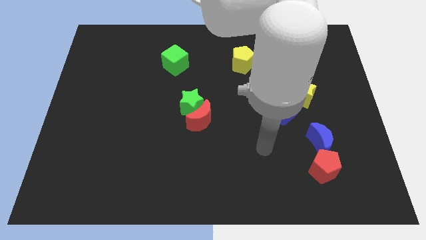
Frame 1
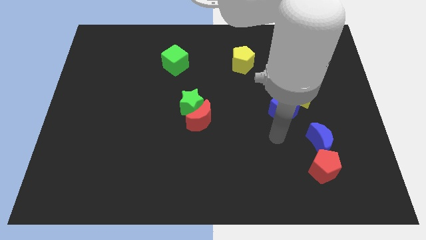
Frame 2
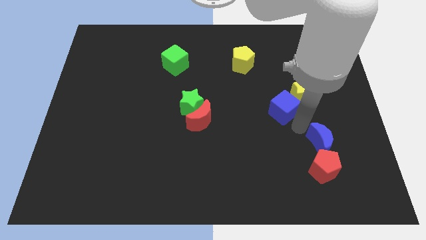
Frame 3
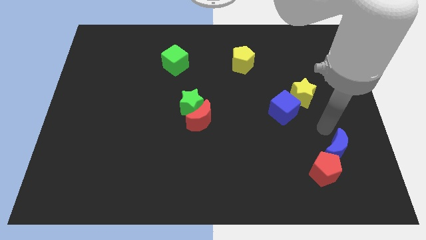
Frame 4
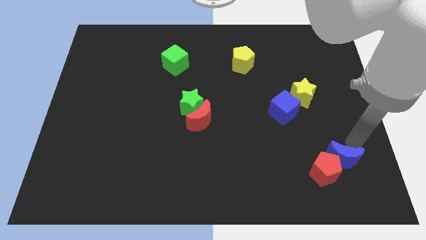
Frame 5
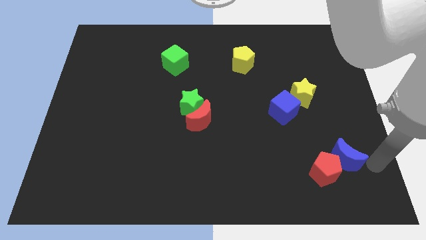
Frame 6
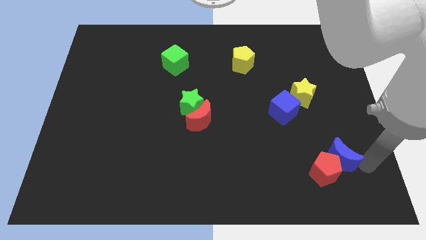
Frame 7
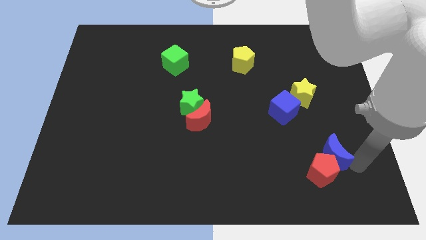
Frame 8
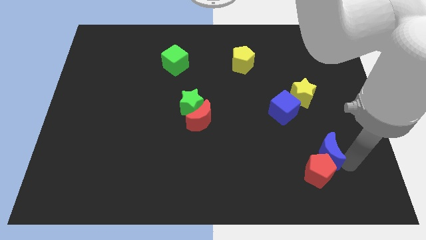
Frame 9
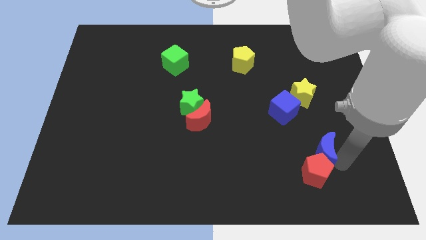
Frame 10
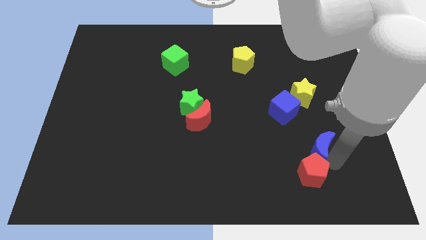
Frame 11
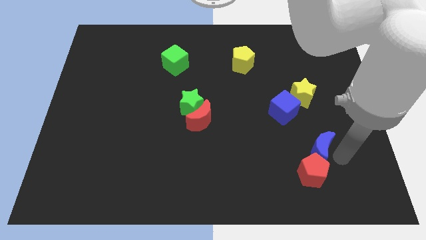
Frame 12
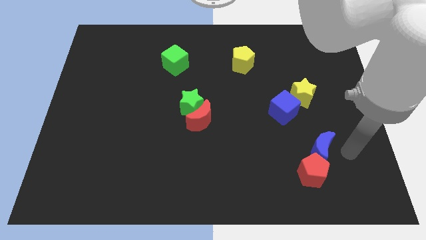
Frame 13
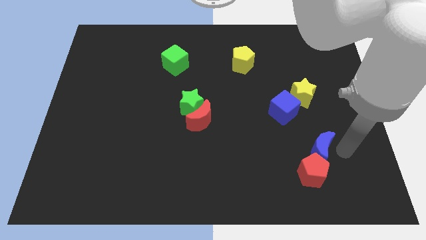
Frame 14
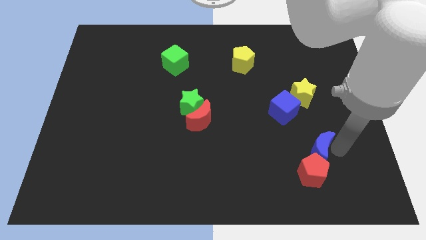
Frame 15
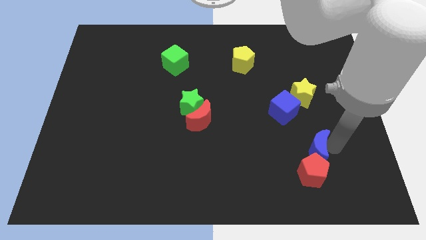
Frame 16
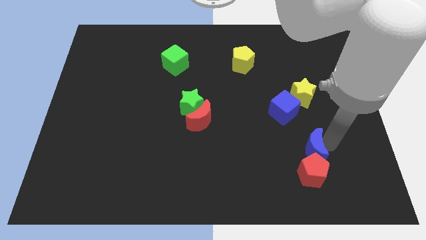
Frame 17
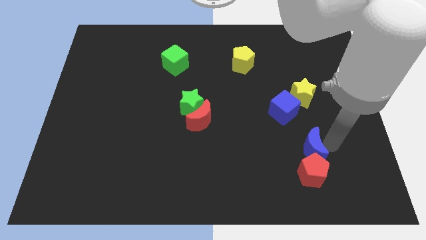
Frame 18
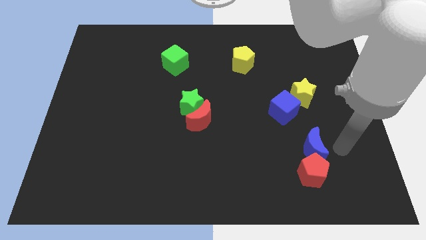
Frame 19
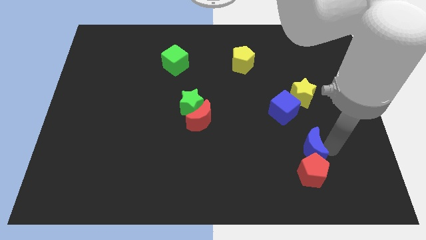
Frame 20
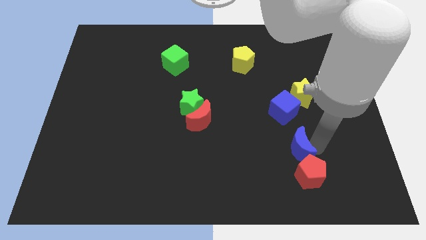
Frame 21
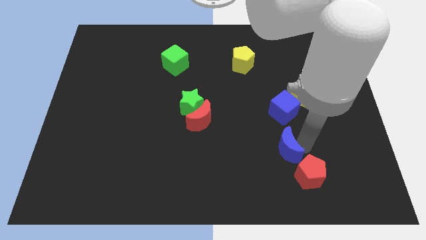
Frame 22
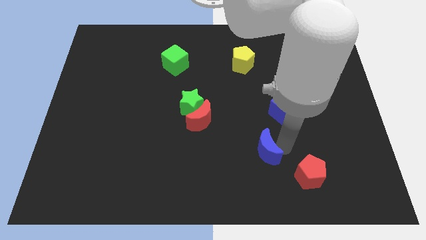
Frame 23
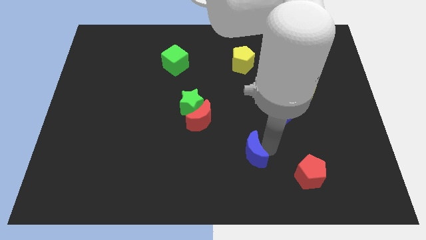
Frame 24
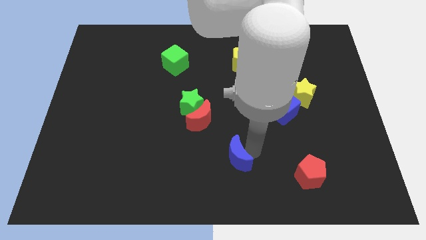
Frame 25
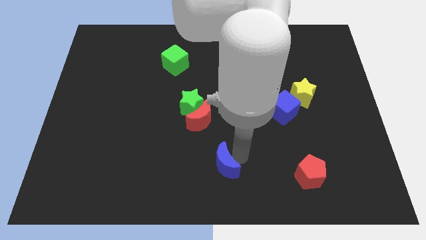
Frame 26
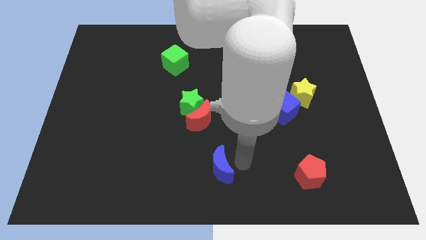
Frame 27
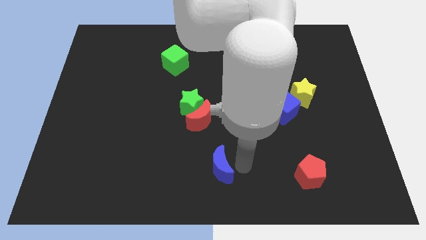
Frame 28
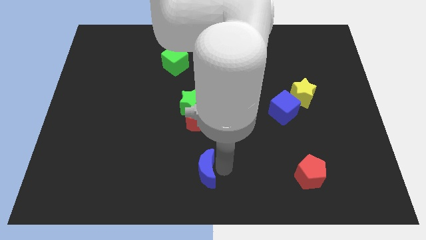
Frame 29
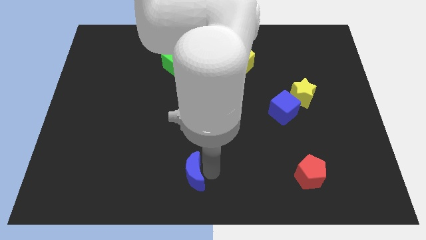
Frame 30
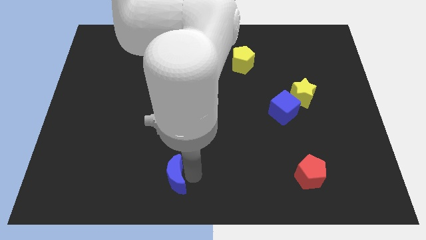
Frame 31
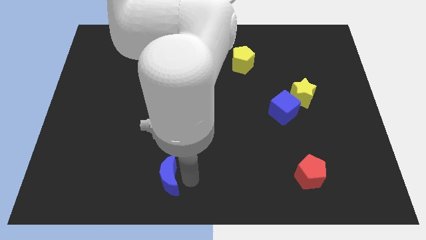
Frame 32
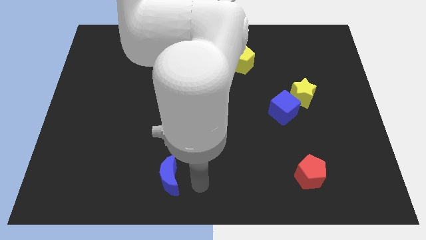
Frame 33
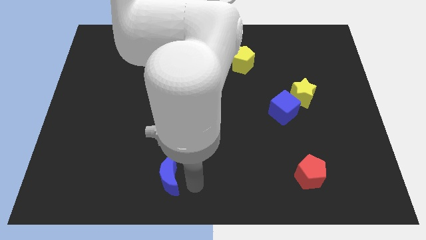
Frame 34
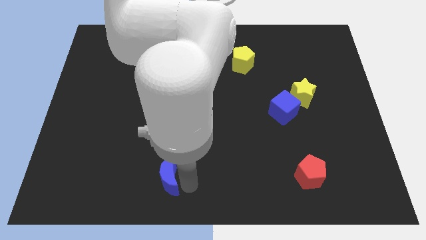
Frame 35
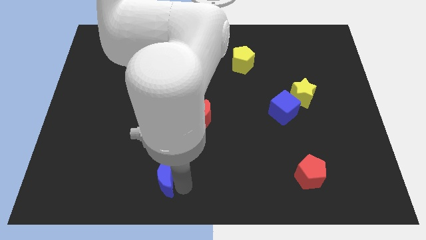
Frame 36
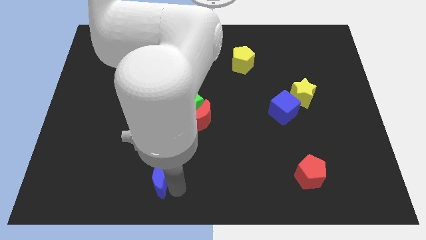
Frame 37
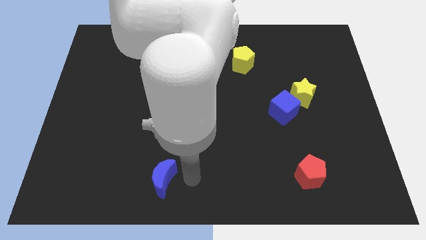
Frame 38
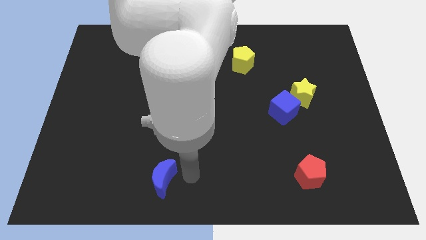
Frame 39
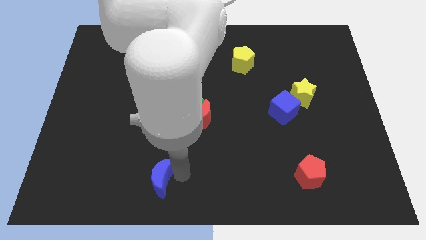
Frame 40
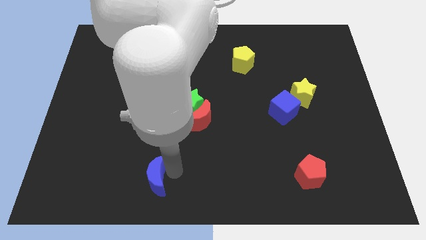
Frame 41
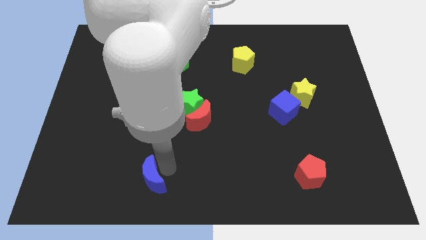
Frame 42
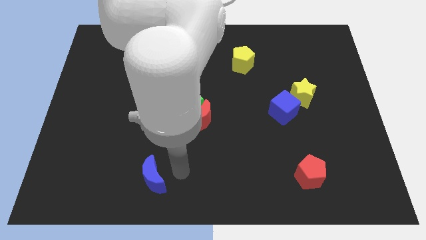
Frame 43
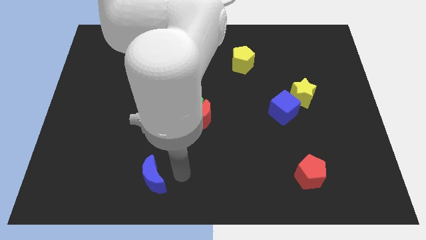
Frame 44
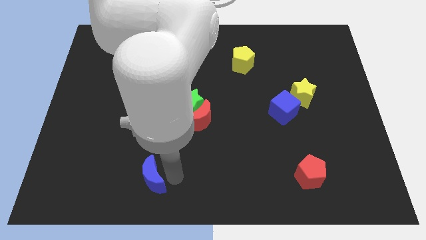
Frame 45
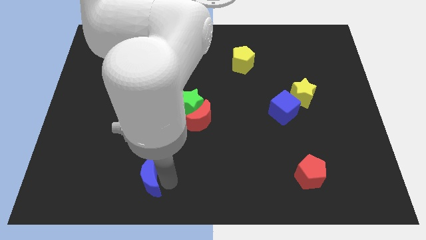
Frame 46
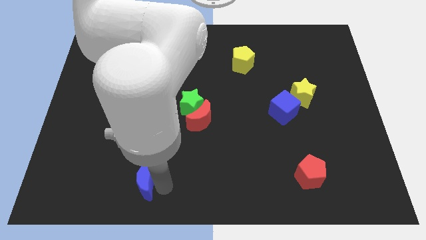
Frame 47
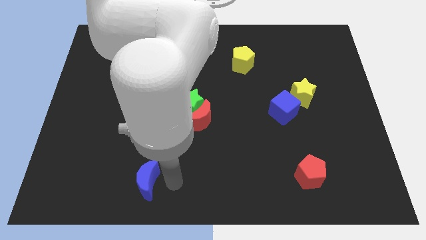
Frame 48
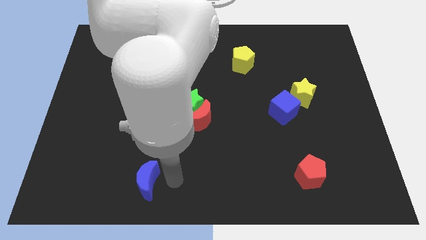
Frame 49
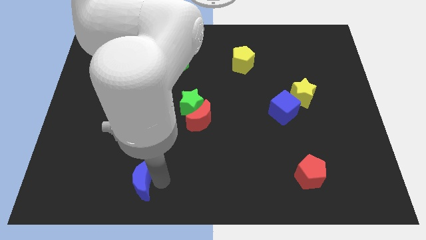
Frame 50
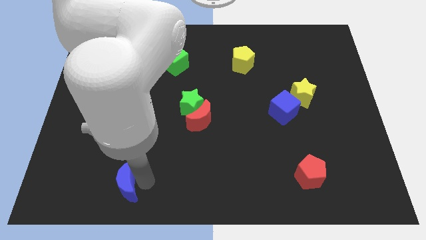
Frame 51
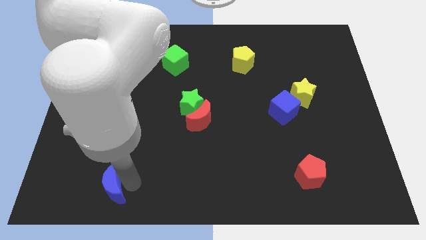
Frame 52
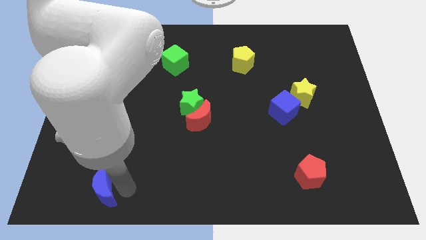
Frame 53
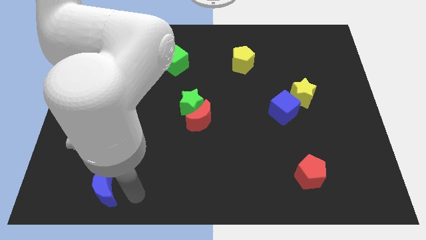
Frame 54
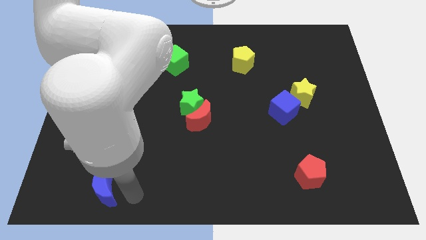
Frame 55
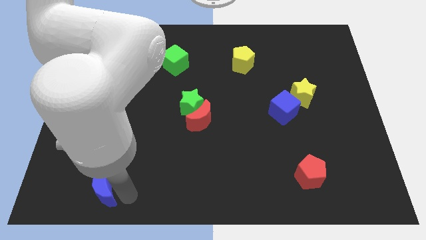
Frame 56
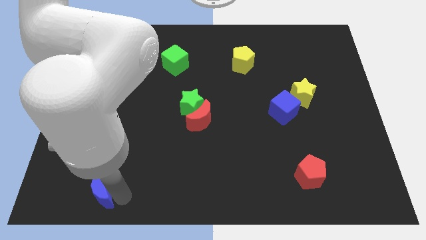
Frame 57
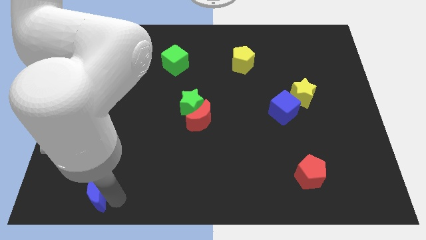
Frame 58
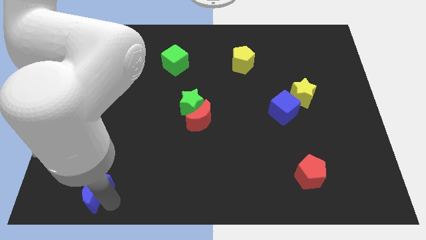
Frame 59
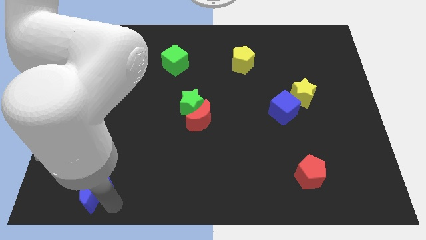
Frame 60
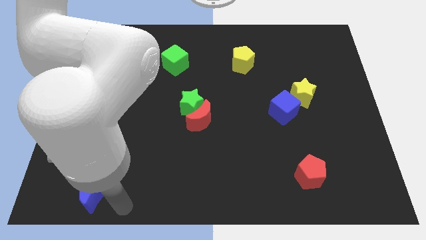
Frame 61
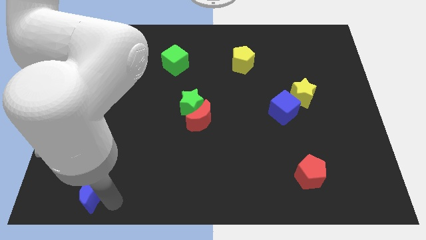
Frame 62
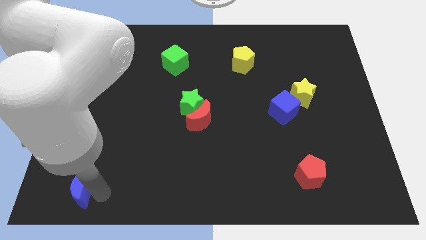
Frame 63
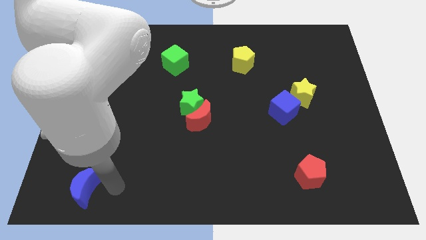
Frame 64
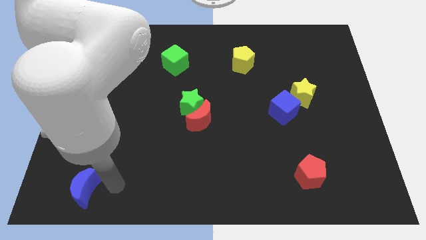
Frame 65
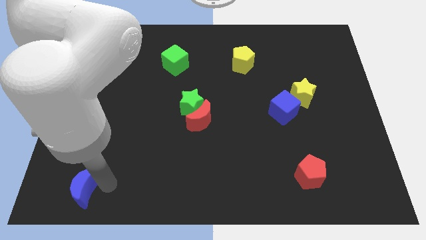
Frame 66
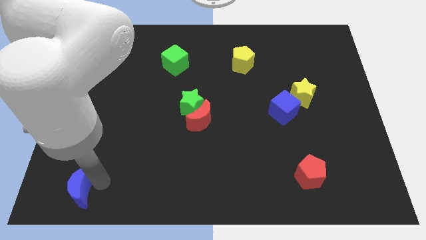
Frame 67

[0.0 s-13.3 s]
move the blue moon to the bottom left of the board
